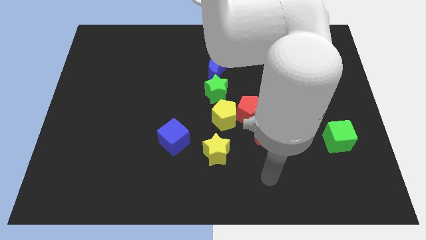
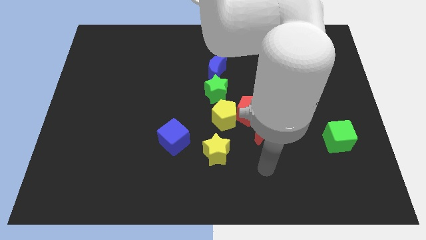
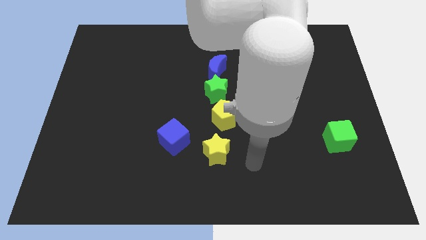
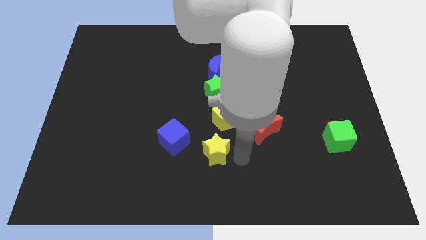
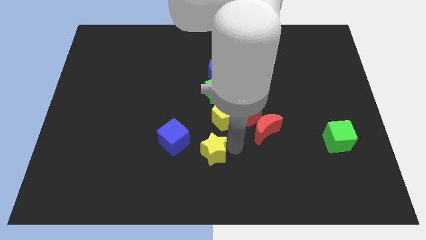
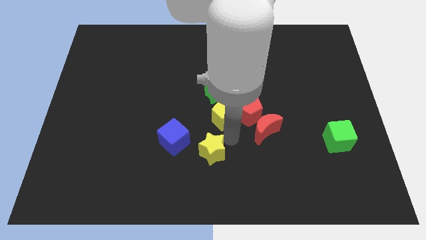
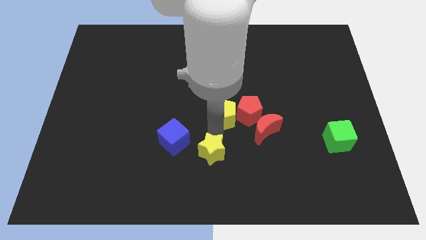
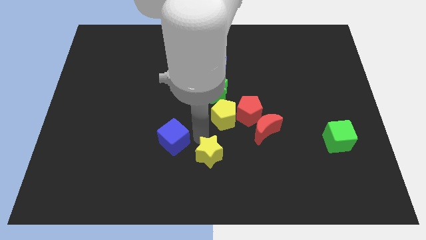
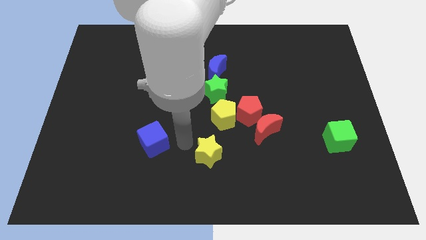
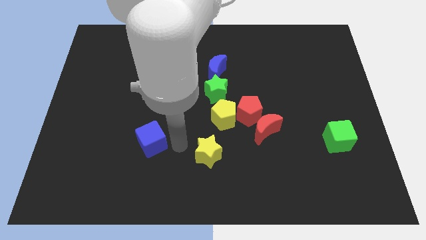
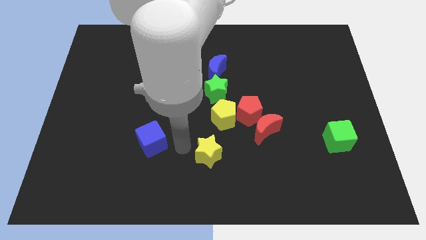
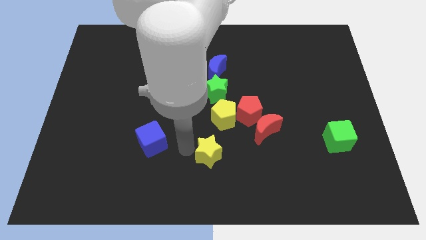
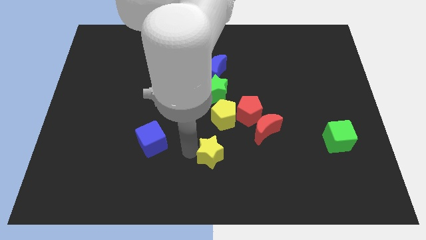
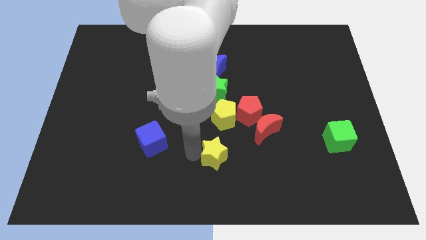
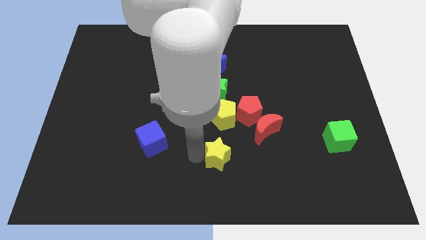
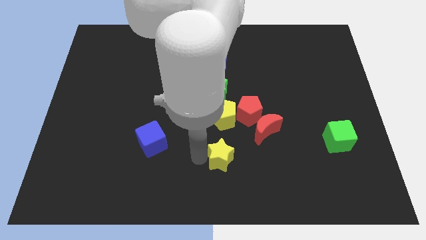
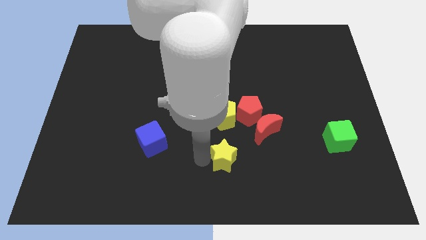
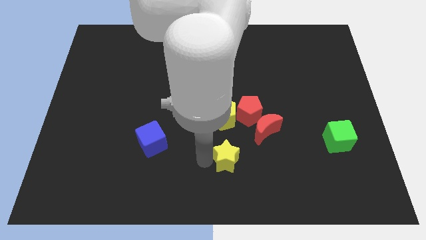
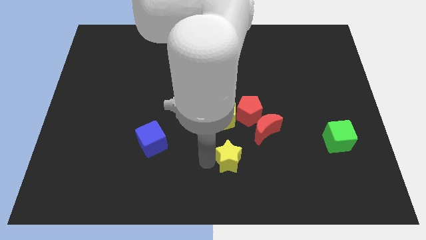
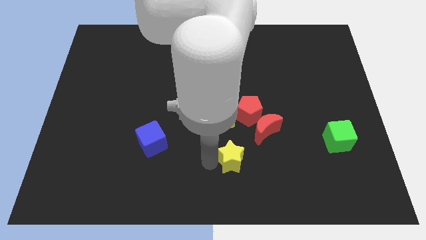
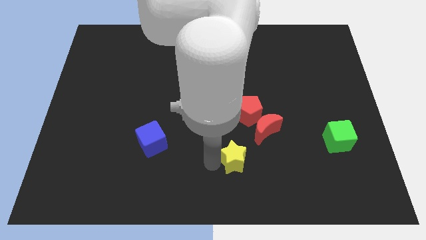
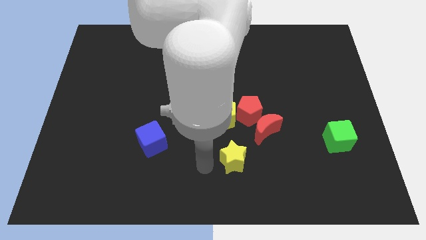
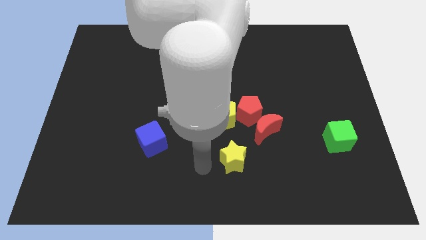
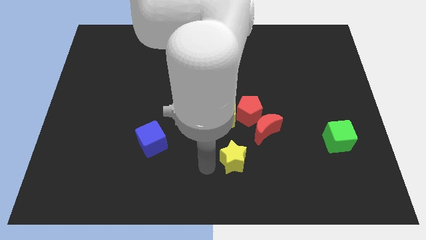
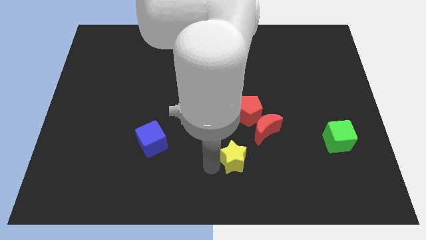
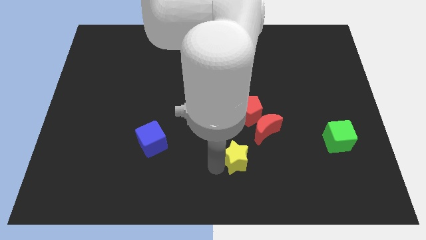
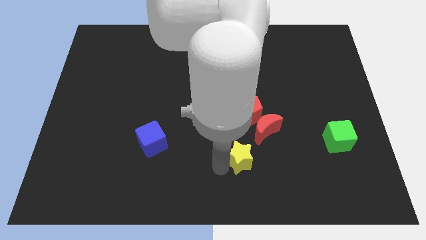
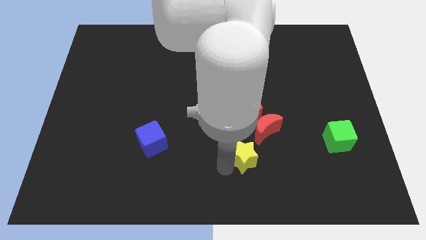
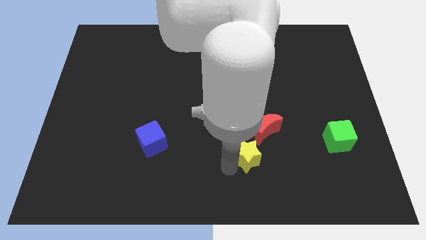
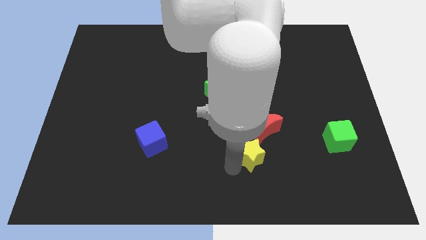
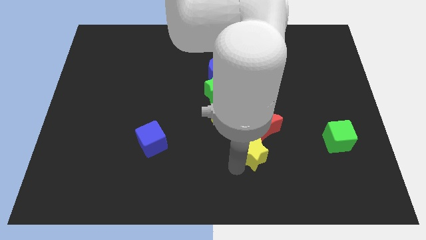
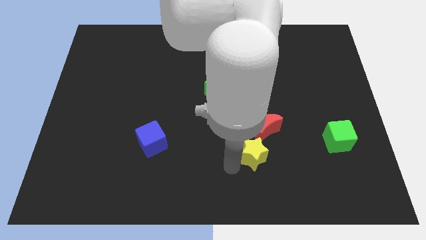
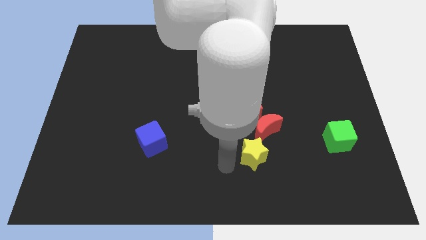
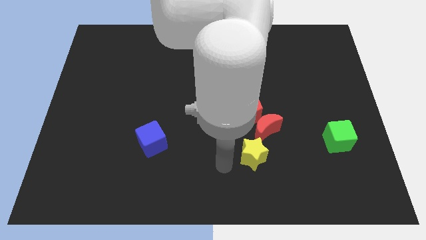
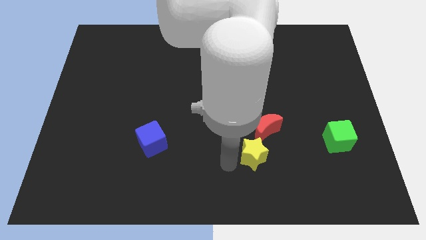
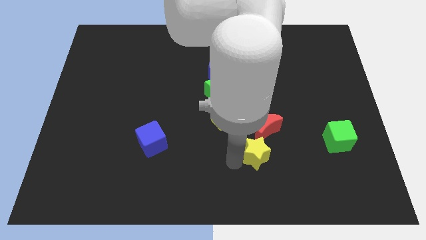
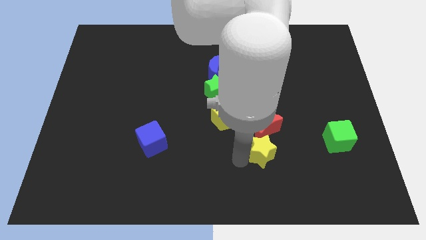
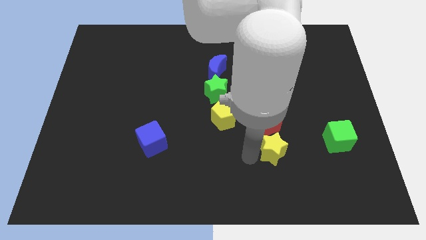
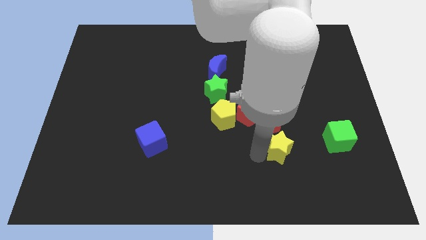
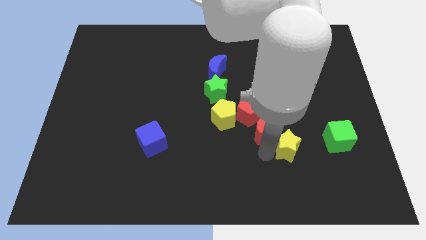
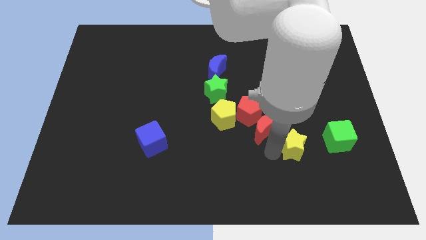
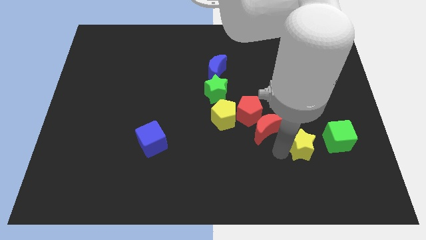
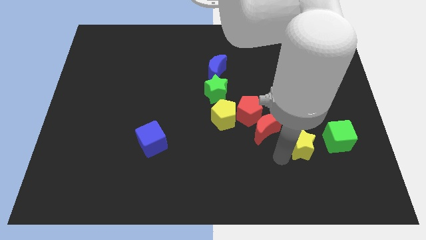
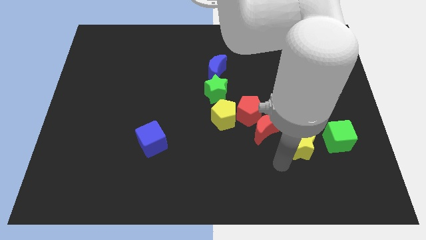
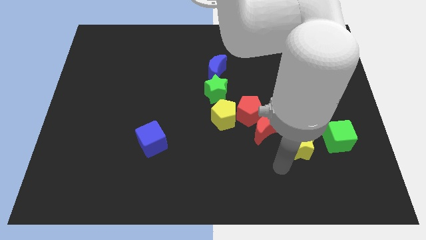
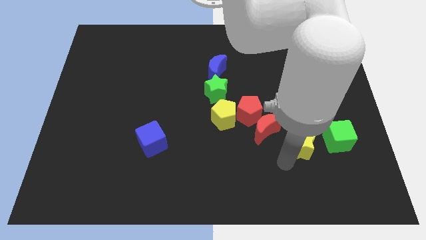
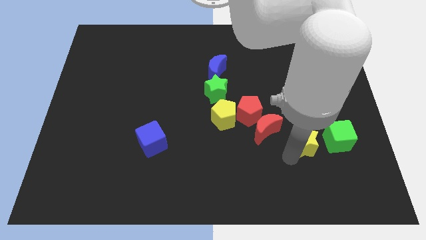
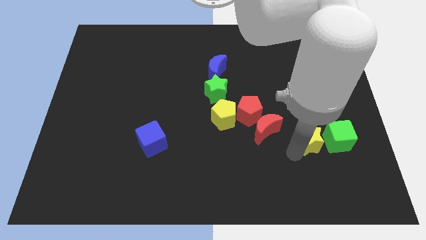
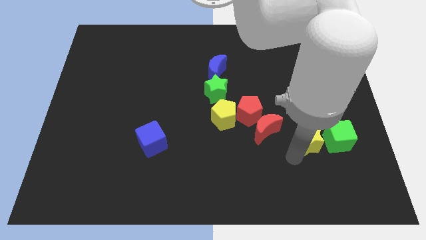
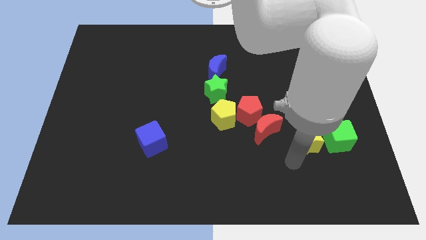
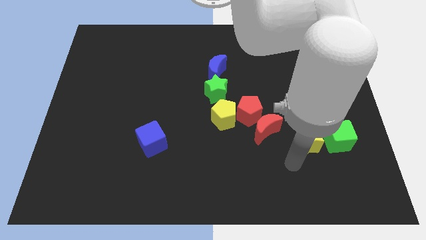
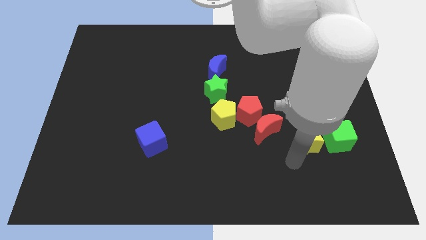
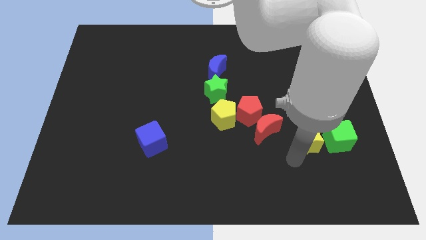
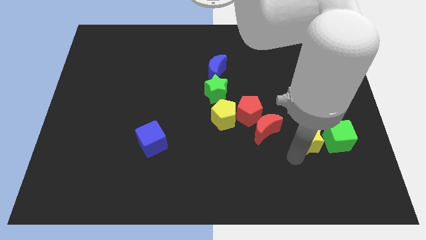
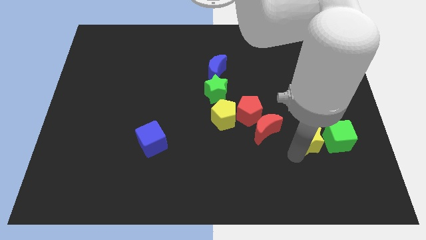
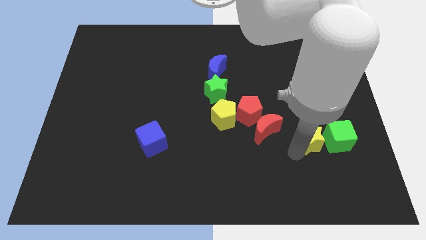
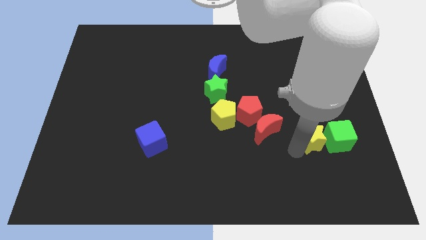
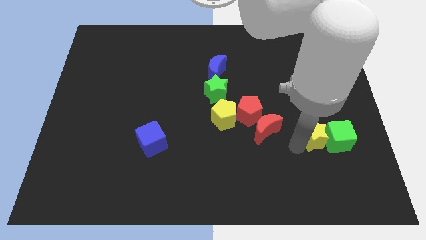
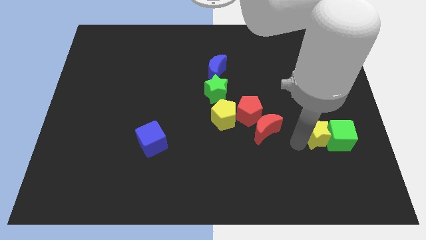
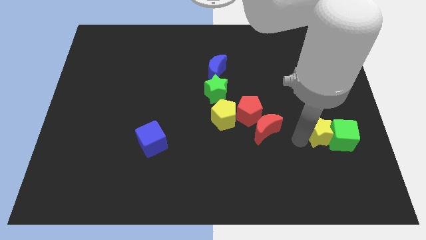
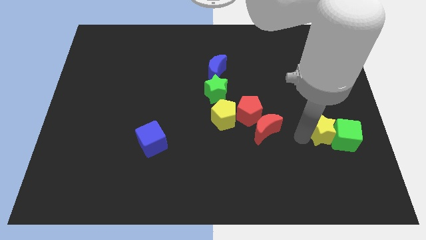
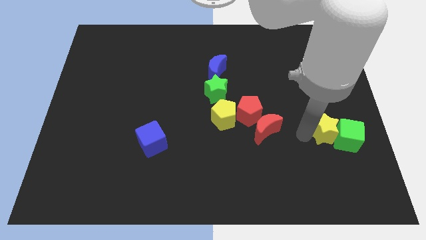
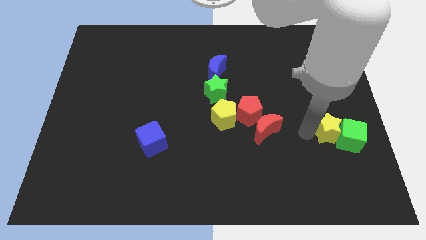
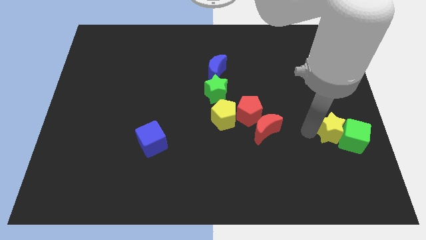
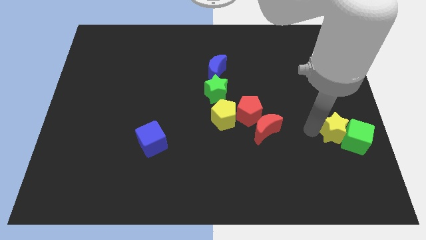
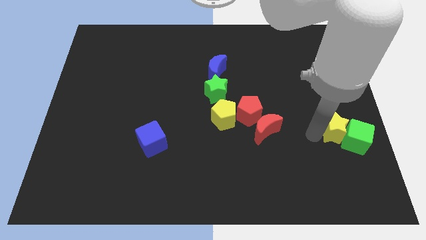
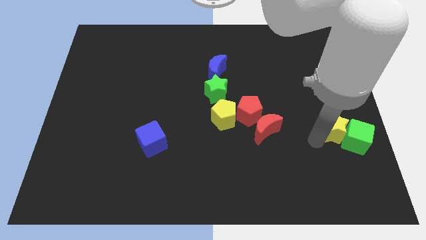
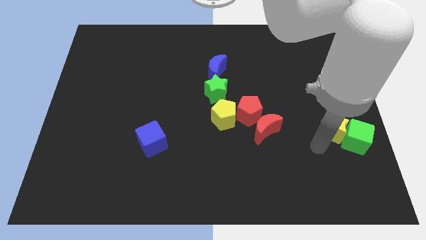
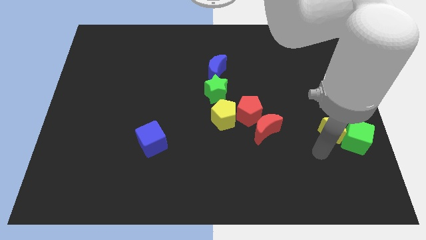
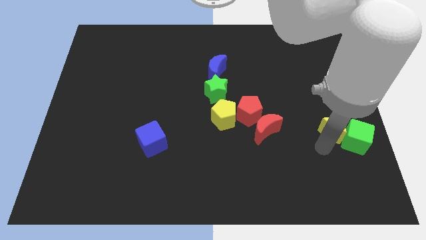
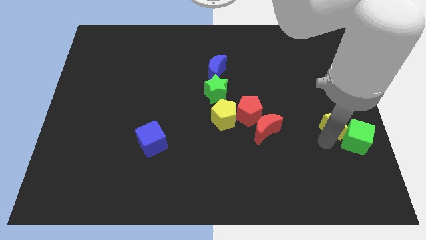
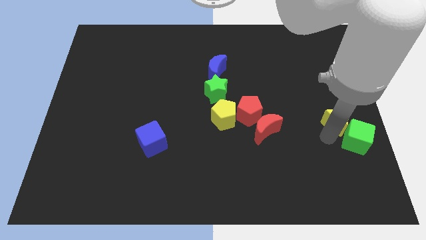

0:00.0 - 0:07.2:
put the yellow star to the right side of the board

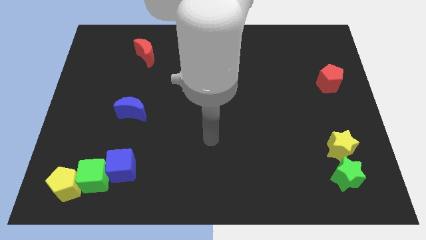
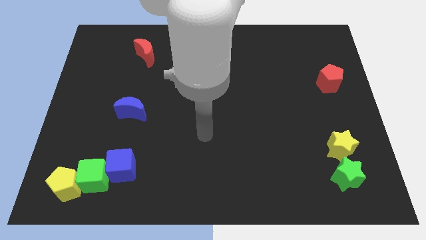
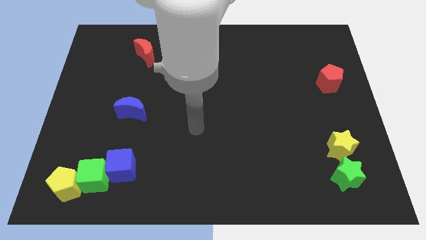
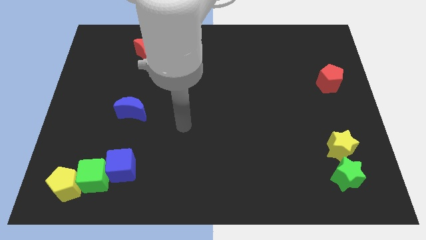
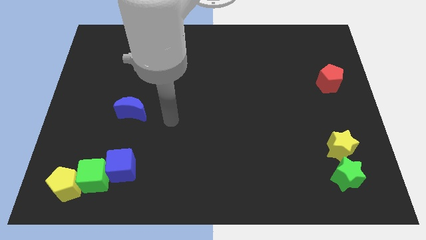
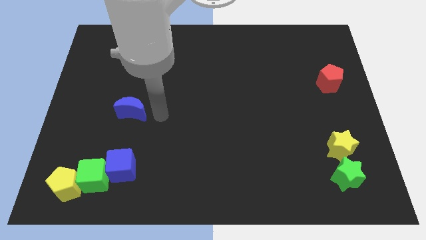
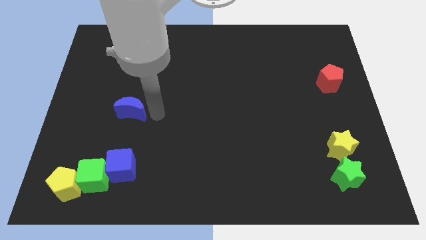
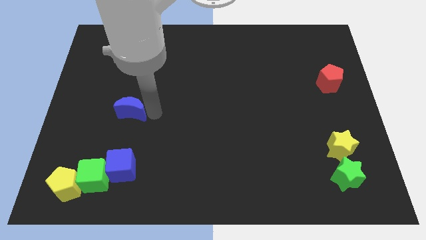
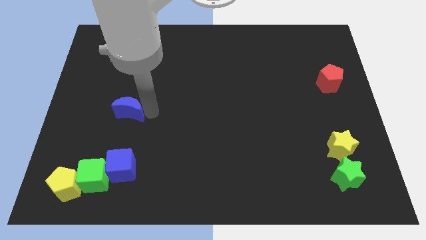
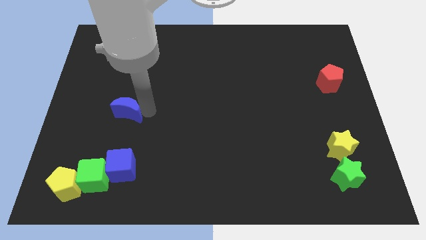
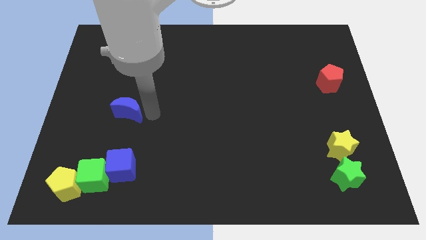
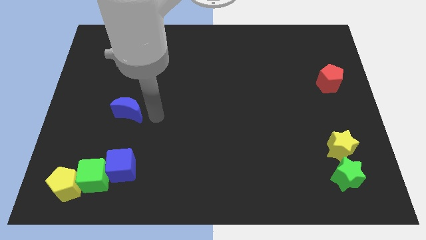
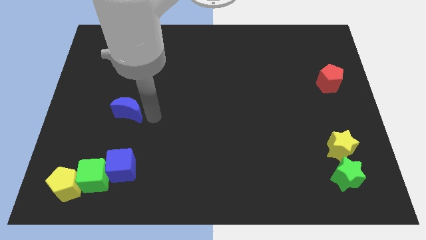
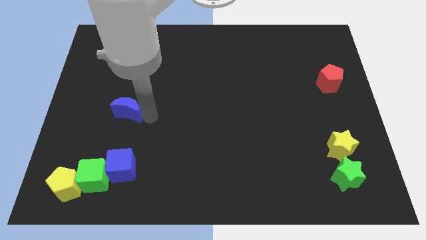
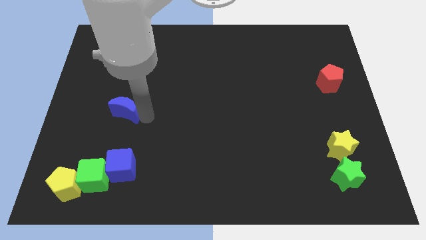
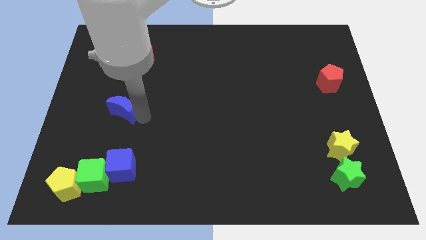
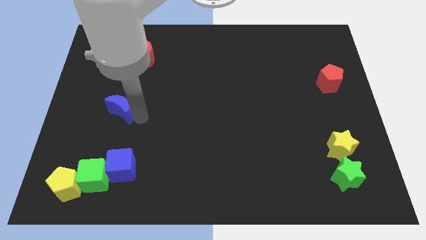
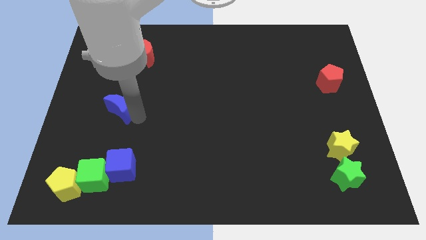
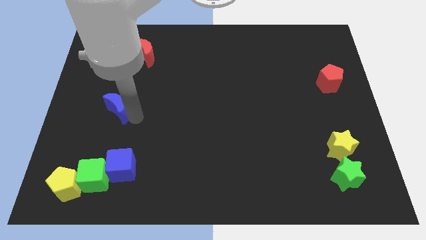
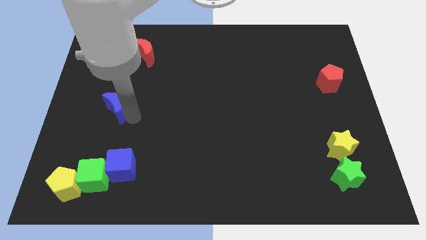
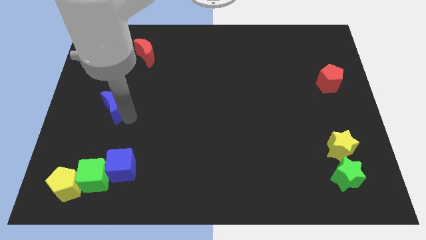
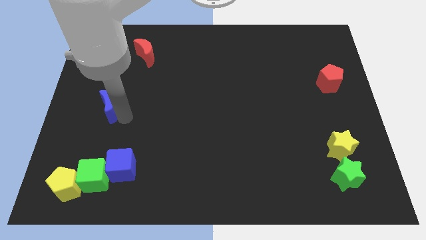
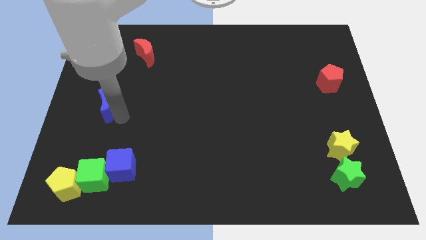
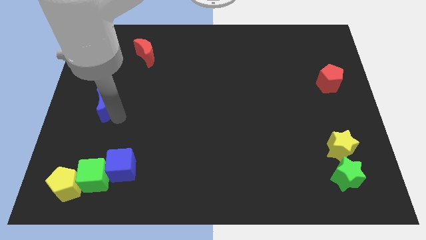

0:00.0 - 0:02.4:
put the blue moon to the left side
